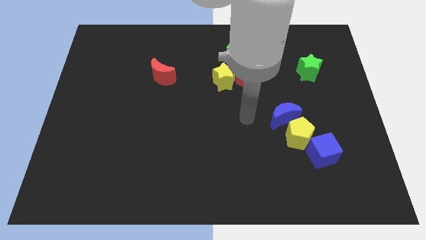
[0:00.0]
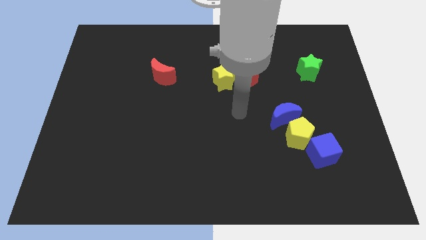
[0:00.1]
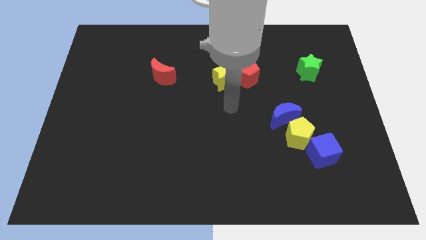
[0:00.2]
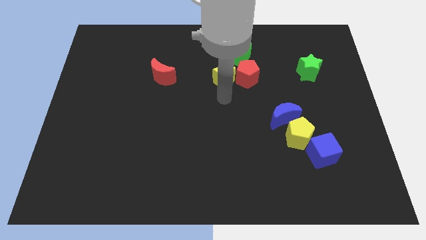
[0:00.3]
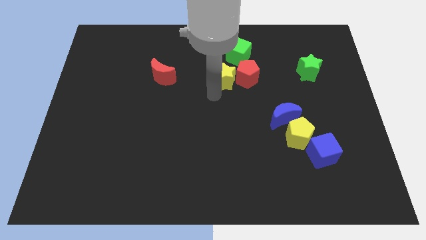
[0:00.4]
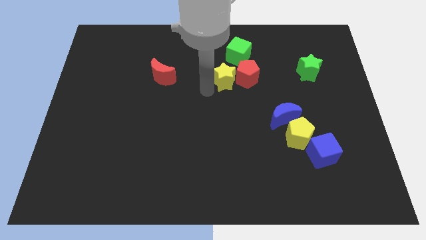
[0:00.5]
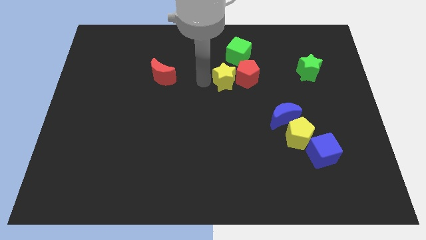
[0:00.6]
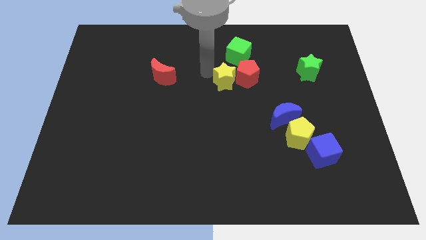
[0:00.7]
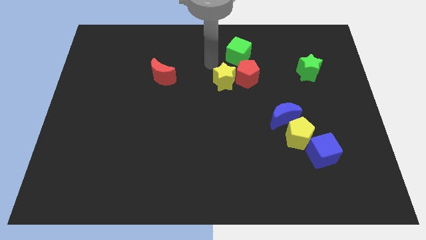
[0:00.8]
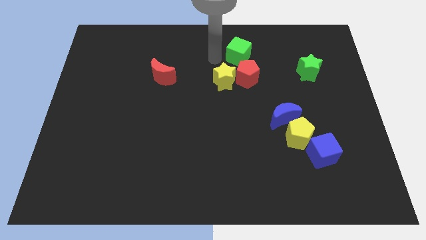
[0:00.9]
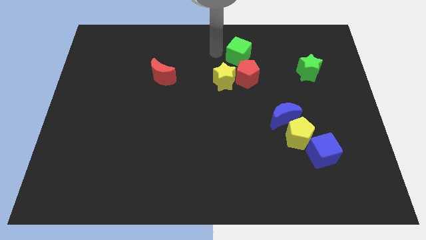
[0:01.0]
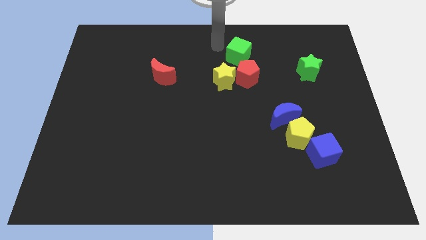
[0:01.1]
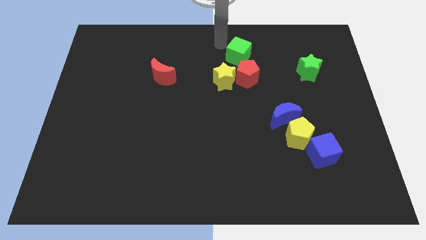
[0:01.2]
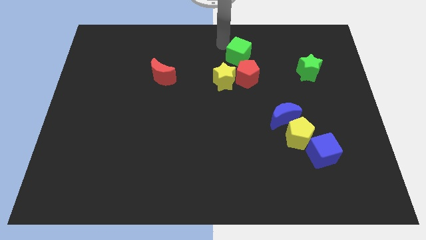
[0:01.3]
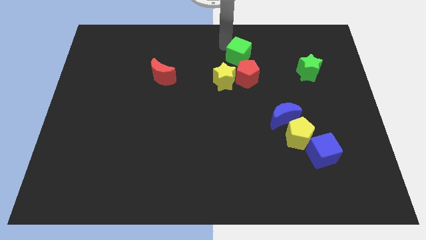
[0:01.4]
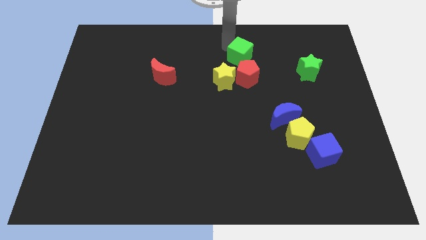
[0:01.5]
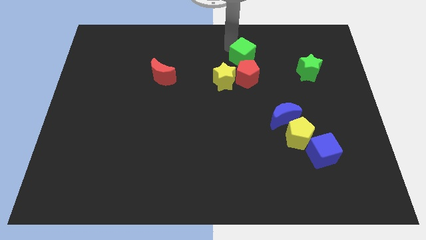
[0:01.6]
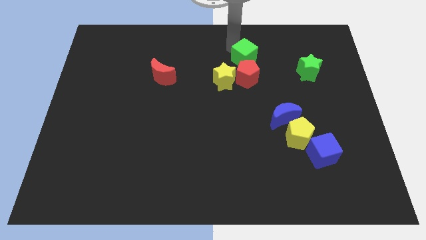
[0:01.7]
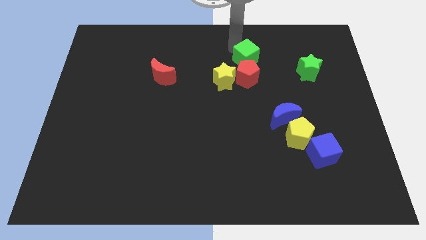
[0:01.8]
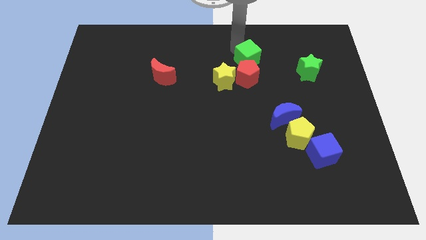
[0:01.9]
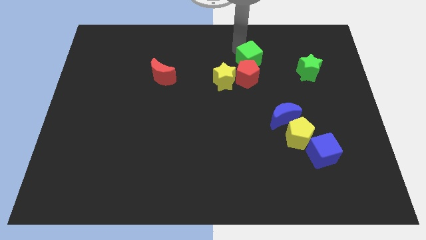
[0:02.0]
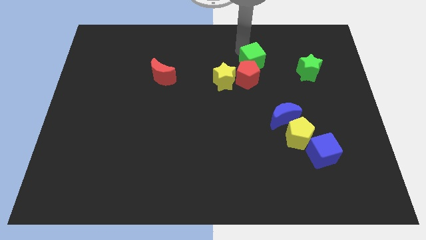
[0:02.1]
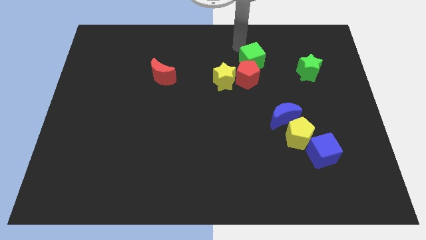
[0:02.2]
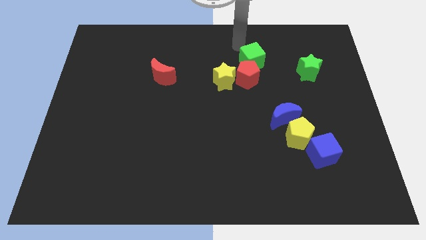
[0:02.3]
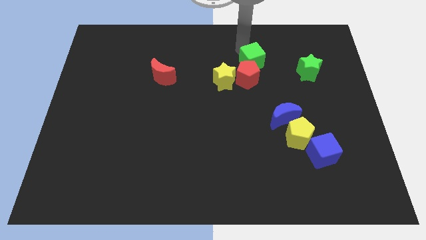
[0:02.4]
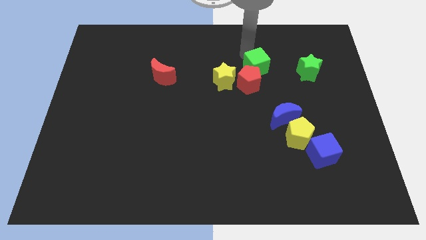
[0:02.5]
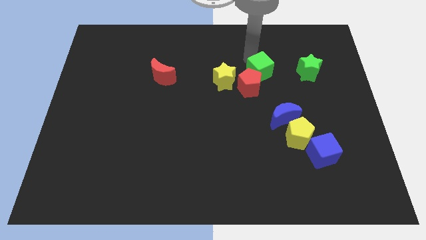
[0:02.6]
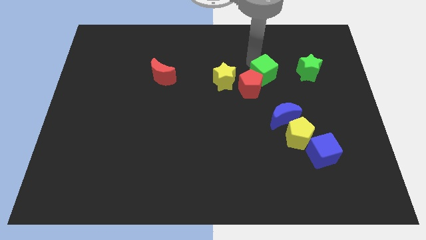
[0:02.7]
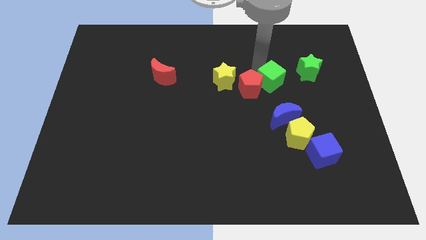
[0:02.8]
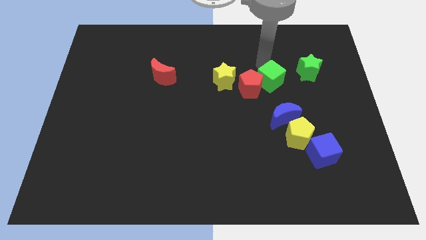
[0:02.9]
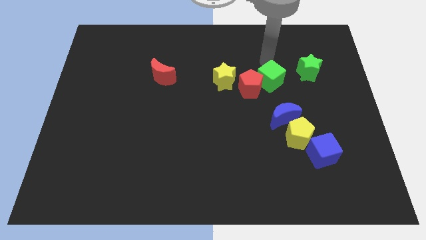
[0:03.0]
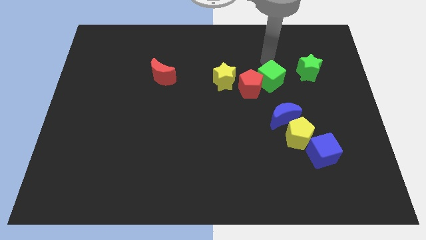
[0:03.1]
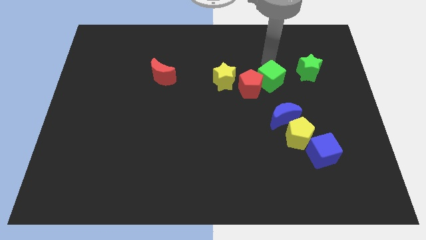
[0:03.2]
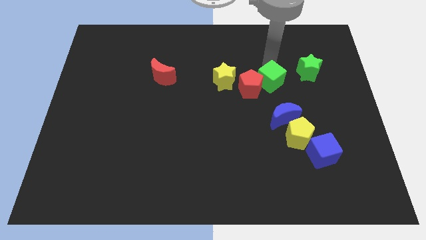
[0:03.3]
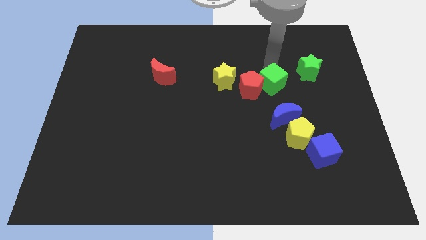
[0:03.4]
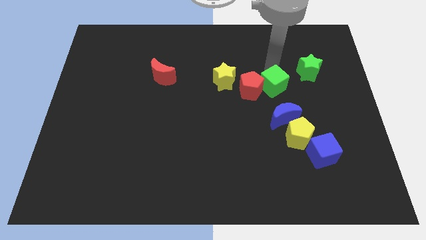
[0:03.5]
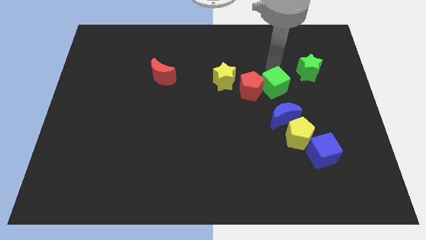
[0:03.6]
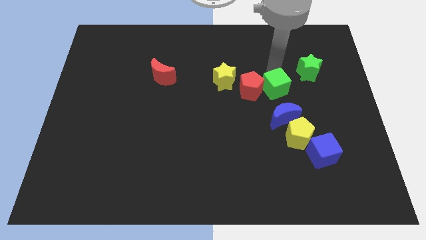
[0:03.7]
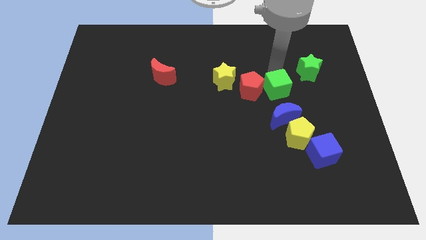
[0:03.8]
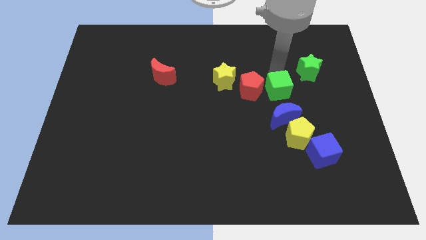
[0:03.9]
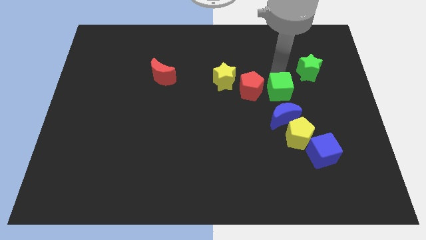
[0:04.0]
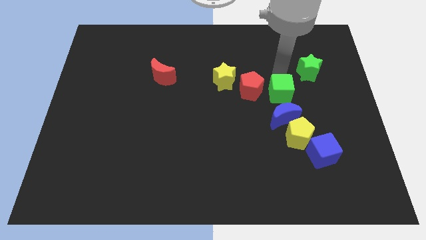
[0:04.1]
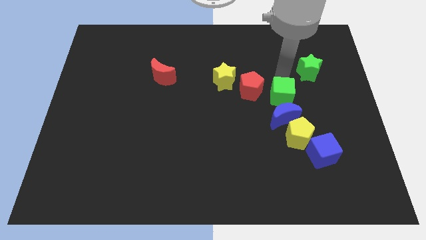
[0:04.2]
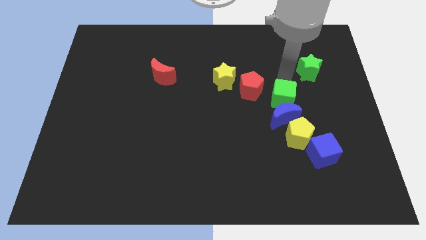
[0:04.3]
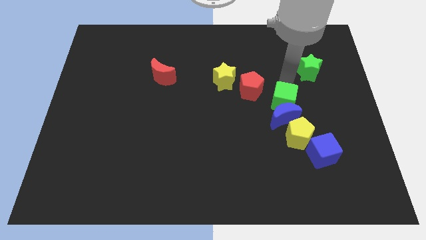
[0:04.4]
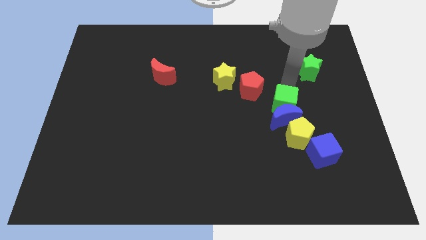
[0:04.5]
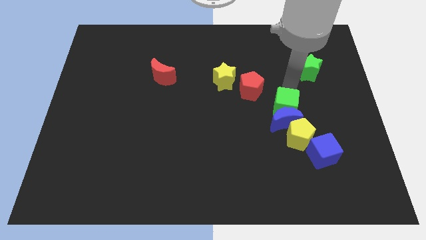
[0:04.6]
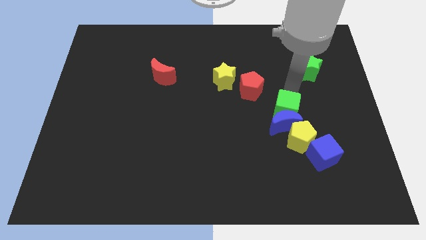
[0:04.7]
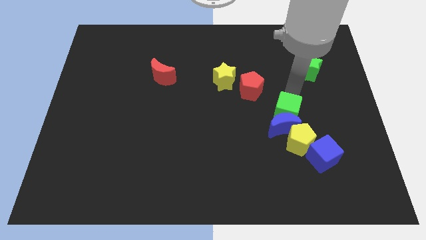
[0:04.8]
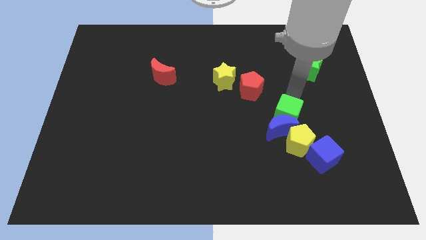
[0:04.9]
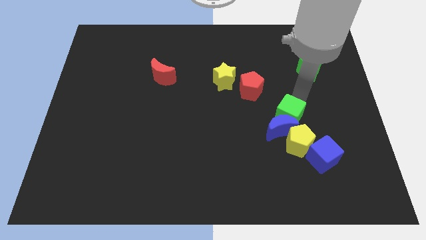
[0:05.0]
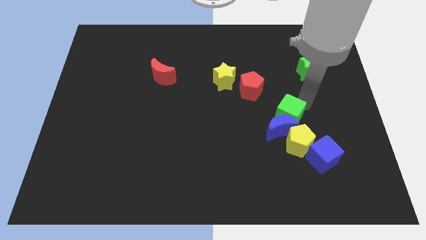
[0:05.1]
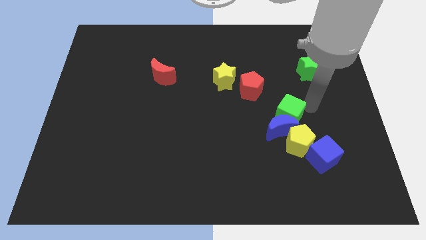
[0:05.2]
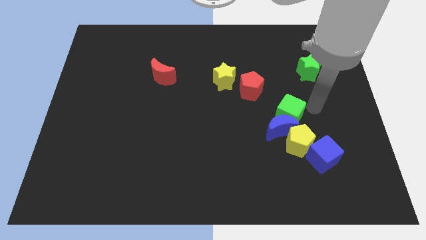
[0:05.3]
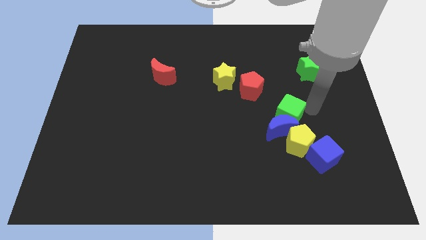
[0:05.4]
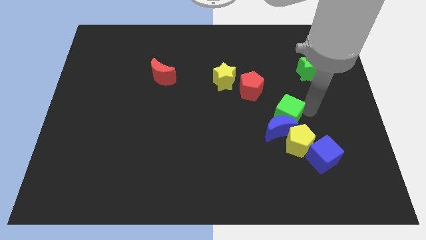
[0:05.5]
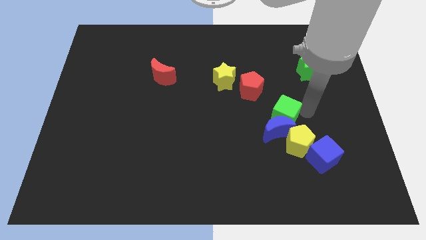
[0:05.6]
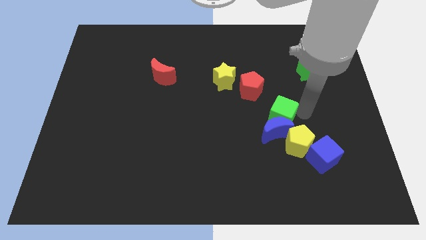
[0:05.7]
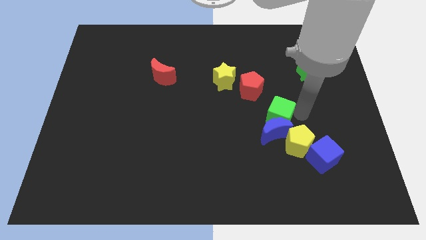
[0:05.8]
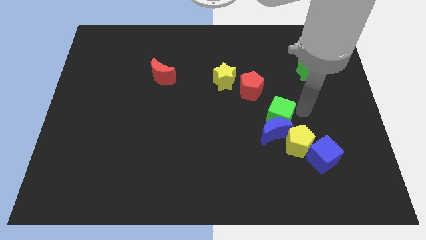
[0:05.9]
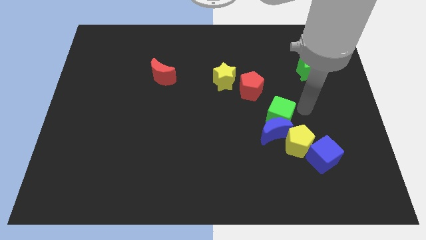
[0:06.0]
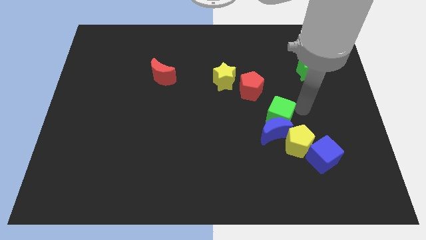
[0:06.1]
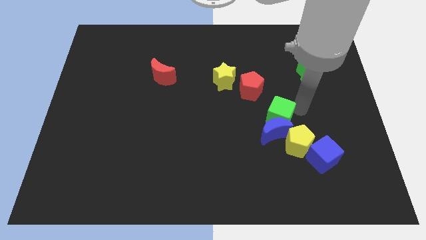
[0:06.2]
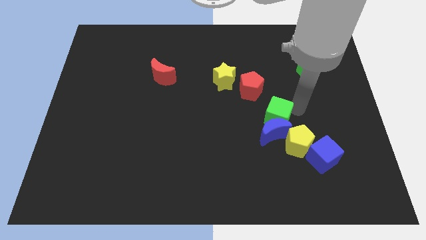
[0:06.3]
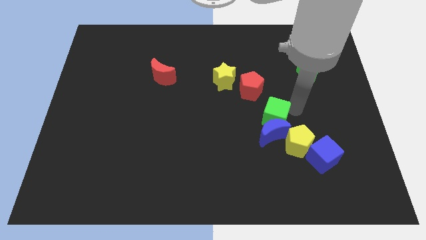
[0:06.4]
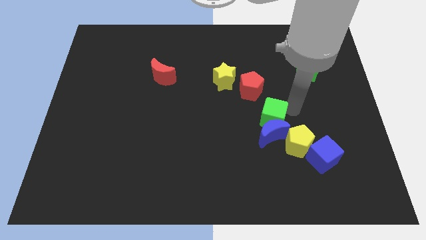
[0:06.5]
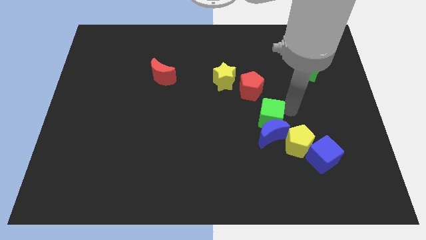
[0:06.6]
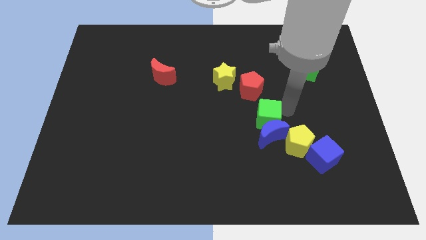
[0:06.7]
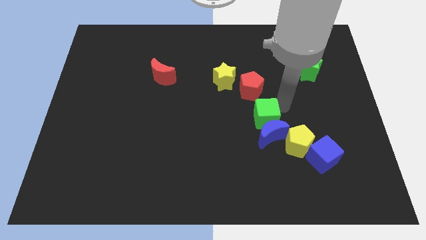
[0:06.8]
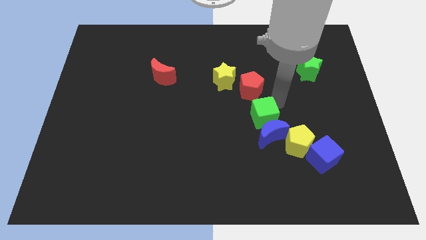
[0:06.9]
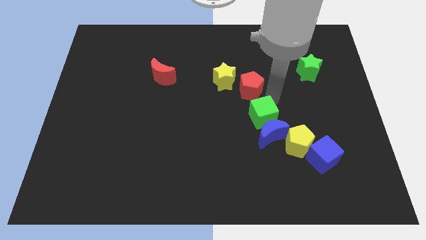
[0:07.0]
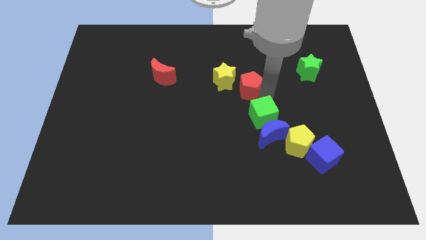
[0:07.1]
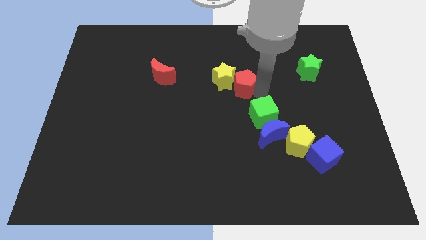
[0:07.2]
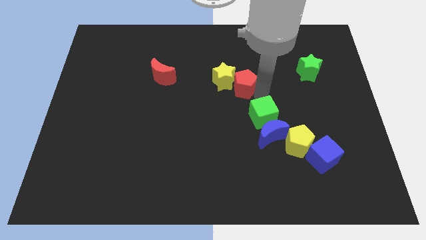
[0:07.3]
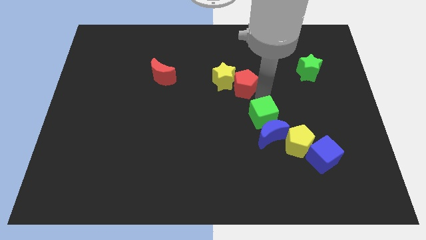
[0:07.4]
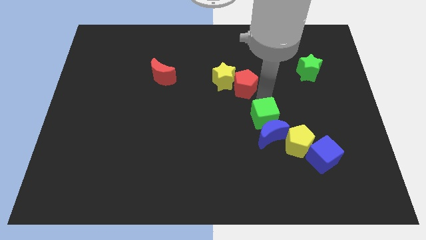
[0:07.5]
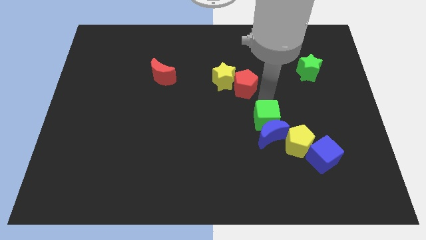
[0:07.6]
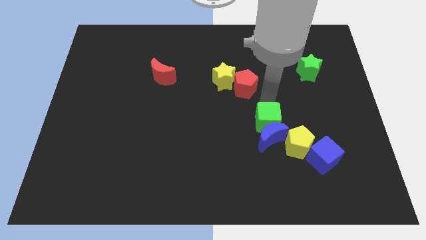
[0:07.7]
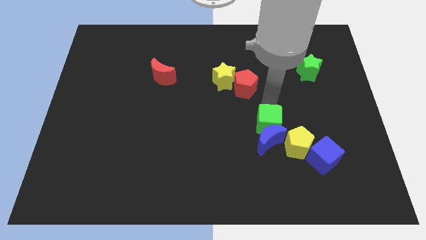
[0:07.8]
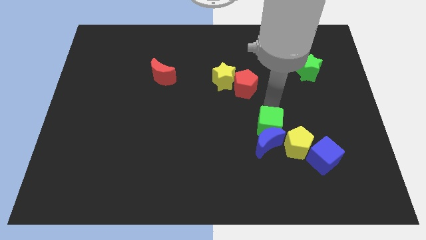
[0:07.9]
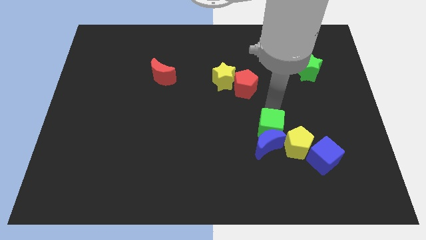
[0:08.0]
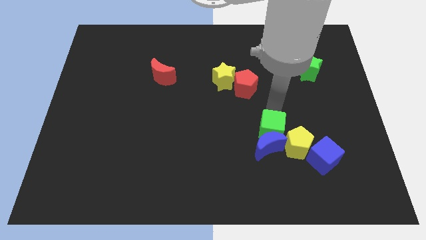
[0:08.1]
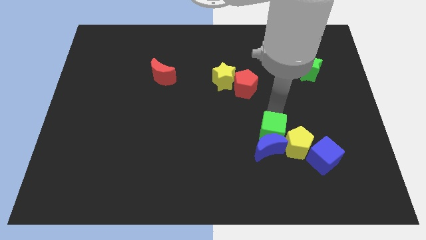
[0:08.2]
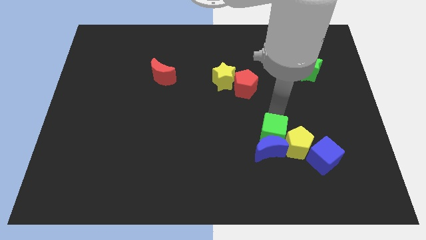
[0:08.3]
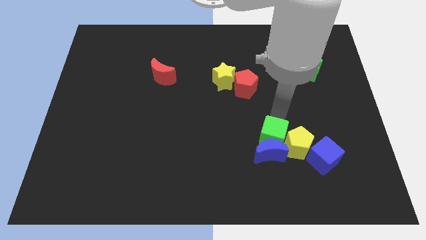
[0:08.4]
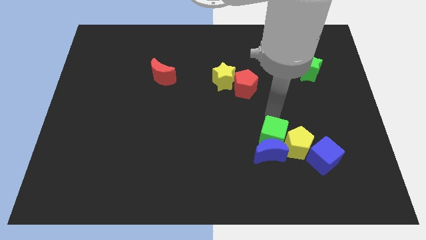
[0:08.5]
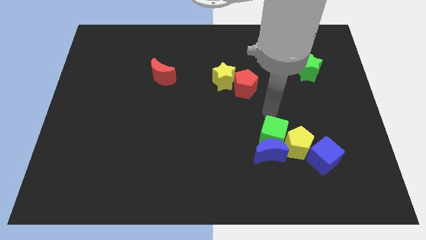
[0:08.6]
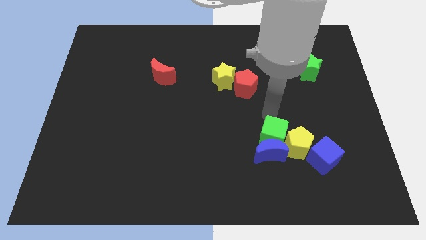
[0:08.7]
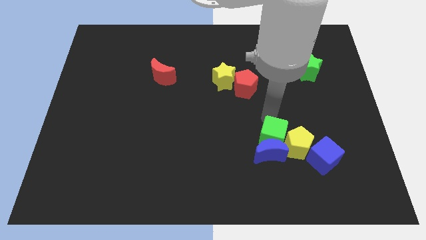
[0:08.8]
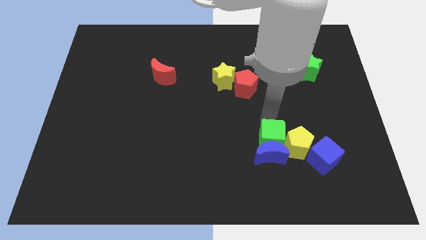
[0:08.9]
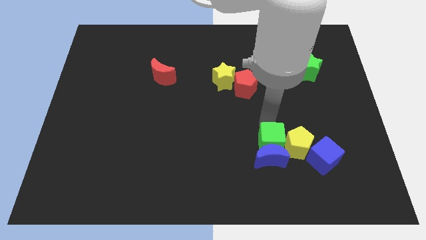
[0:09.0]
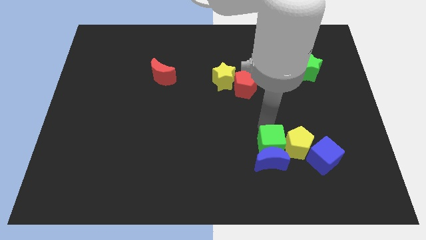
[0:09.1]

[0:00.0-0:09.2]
slide the green cube diagonally down and to the left of the yellow pentagon
